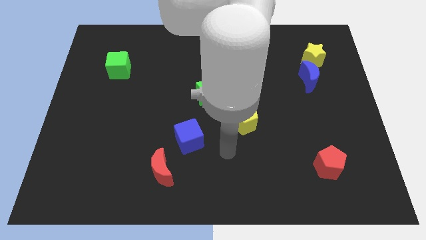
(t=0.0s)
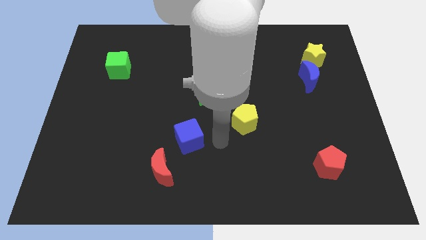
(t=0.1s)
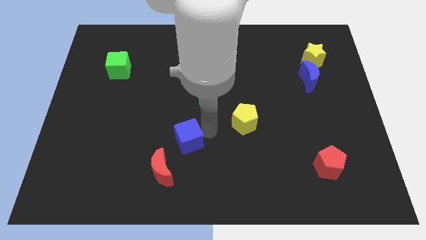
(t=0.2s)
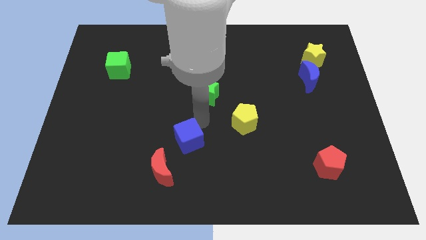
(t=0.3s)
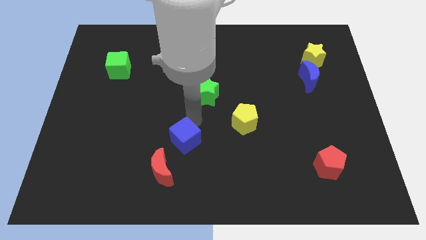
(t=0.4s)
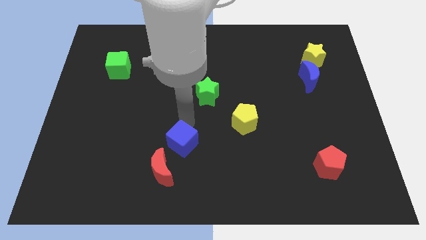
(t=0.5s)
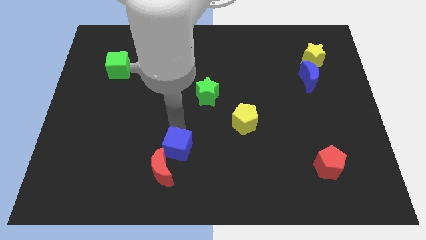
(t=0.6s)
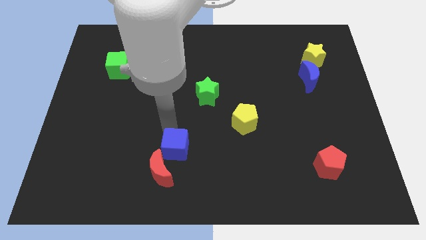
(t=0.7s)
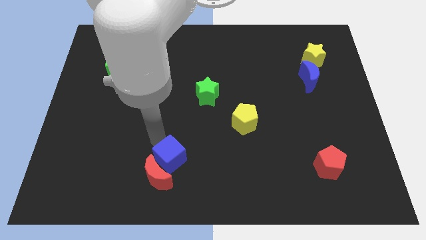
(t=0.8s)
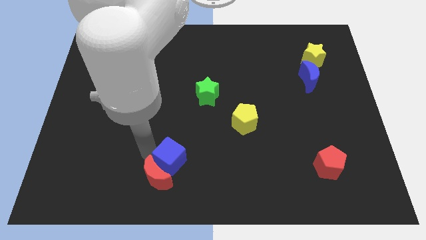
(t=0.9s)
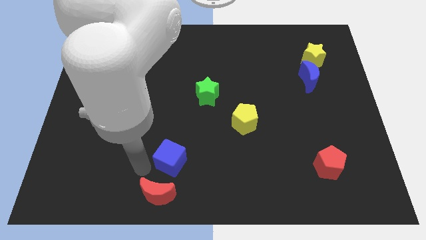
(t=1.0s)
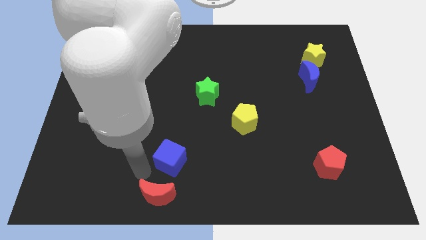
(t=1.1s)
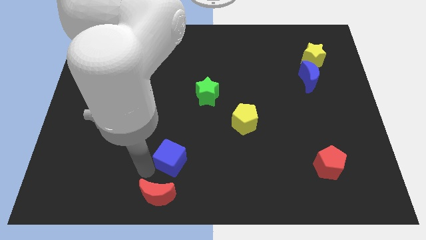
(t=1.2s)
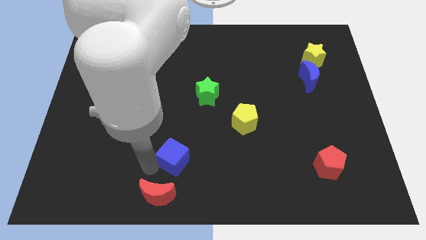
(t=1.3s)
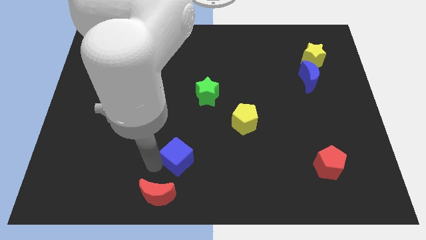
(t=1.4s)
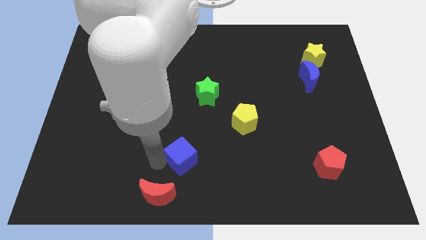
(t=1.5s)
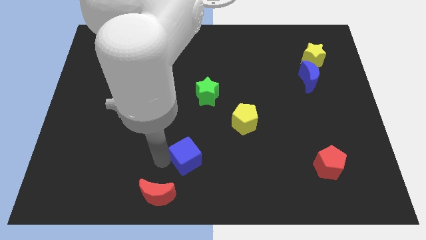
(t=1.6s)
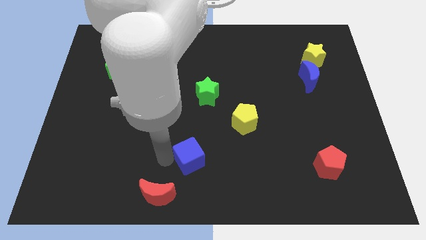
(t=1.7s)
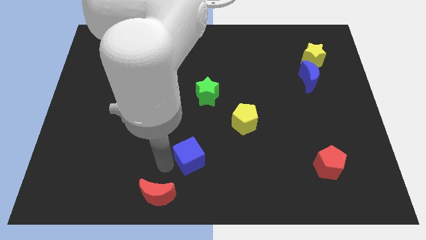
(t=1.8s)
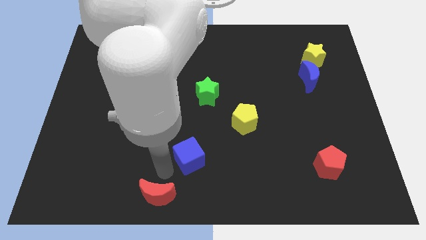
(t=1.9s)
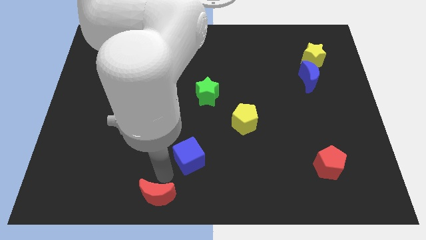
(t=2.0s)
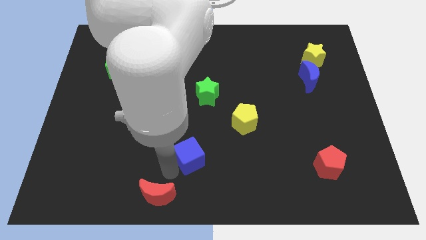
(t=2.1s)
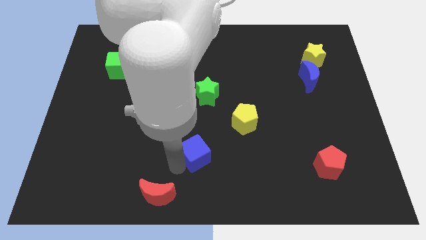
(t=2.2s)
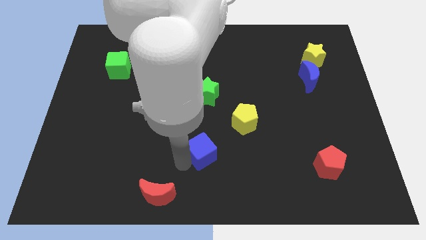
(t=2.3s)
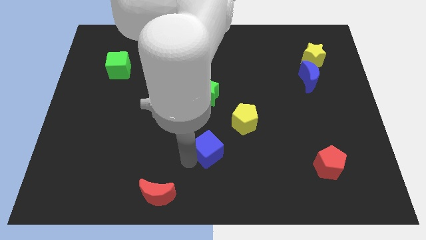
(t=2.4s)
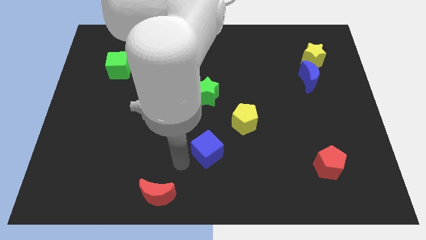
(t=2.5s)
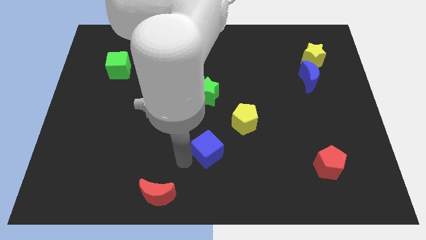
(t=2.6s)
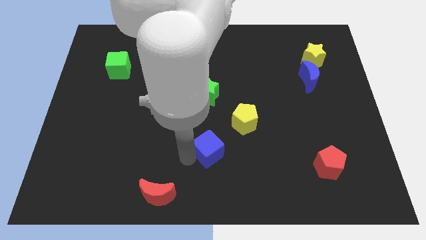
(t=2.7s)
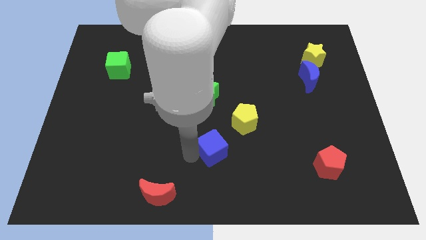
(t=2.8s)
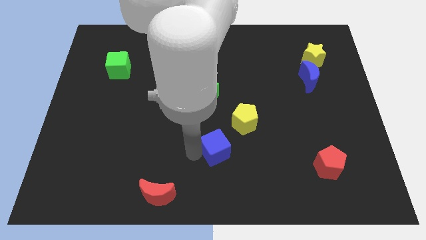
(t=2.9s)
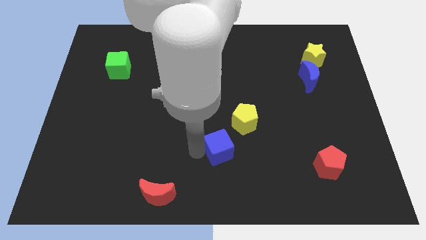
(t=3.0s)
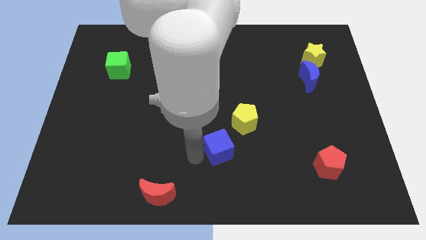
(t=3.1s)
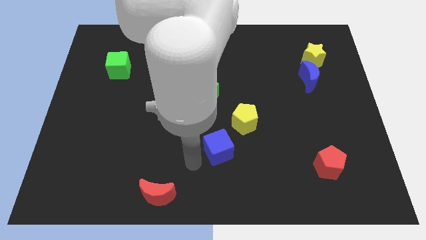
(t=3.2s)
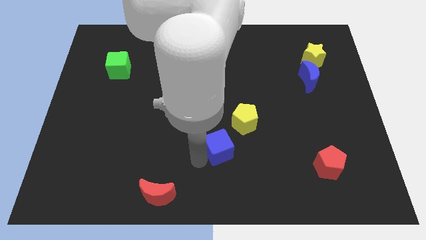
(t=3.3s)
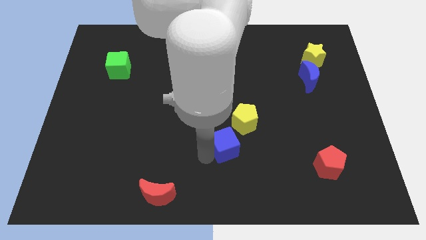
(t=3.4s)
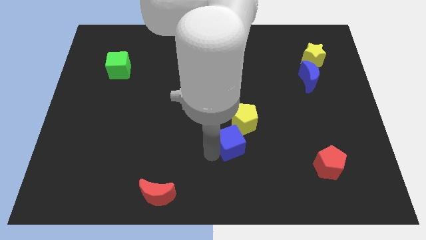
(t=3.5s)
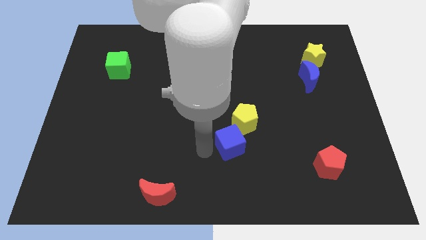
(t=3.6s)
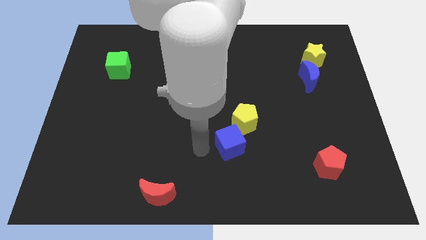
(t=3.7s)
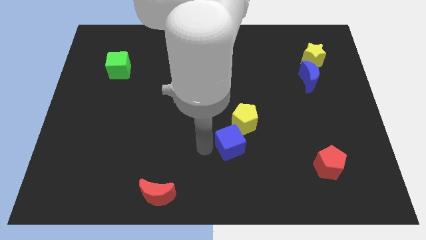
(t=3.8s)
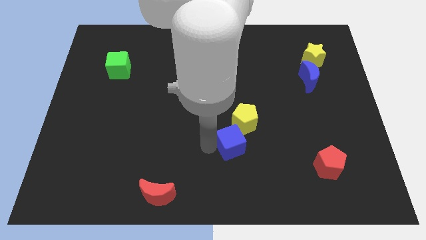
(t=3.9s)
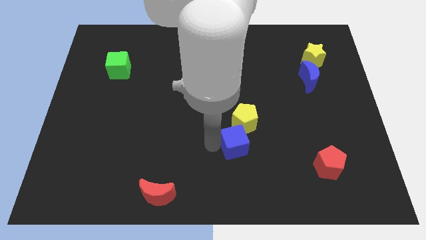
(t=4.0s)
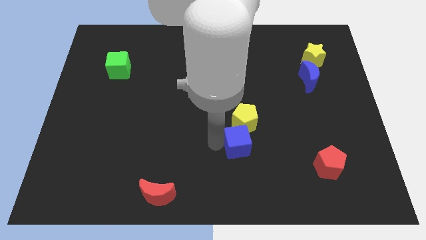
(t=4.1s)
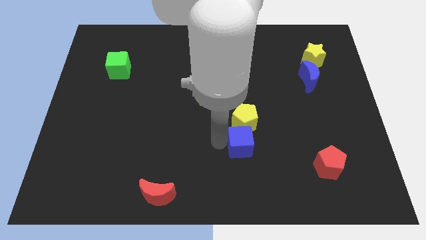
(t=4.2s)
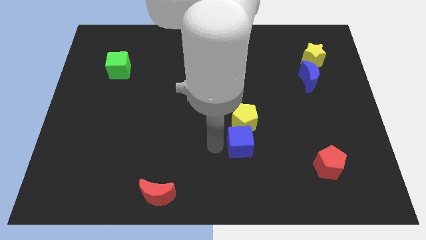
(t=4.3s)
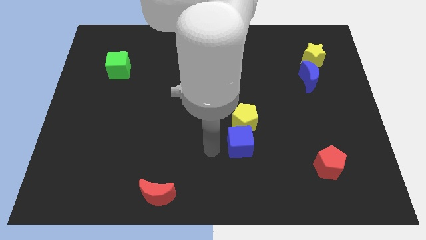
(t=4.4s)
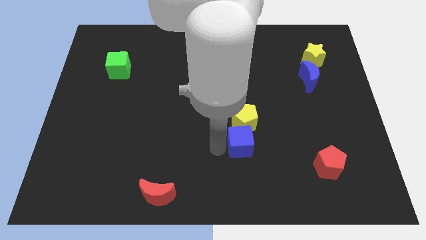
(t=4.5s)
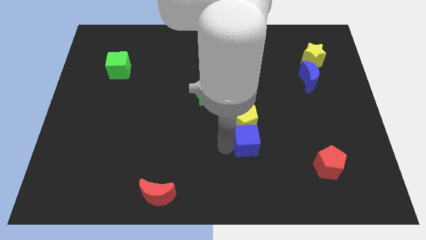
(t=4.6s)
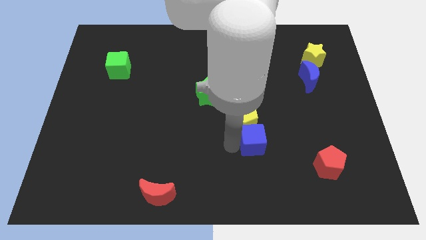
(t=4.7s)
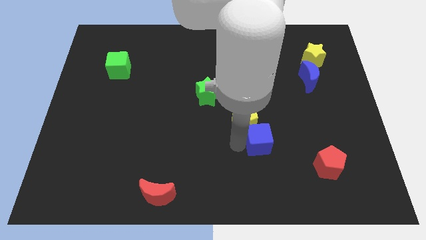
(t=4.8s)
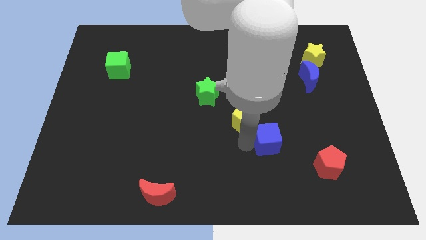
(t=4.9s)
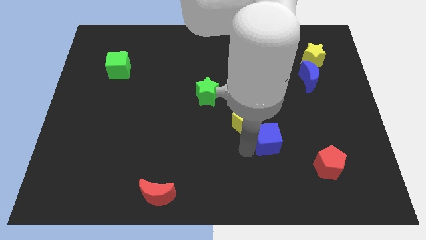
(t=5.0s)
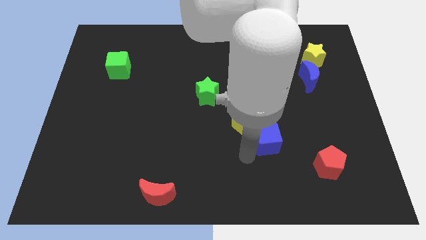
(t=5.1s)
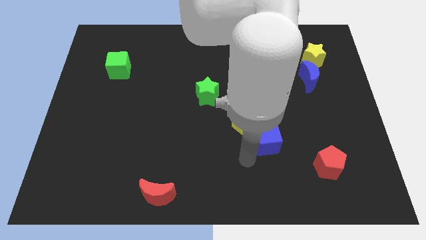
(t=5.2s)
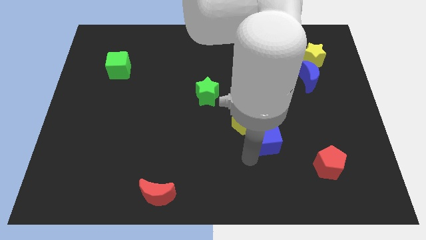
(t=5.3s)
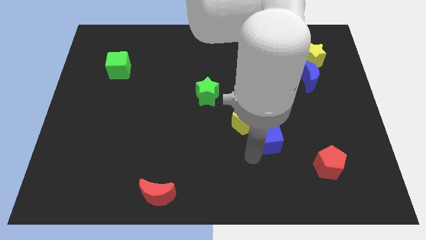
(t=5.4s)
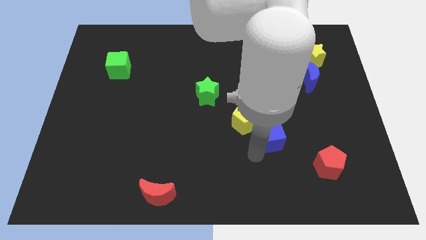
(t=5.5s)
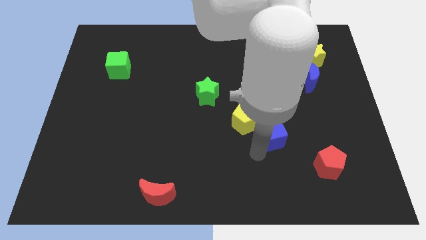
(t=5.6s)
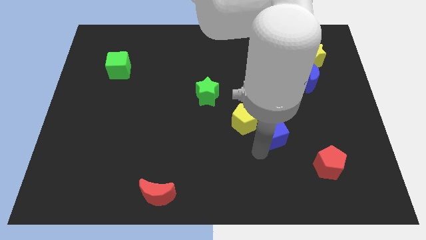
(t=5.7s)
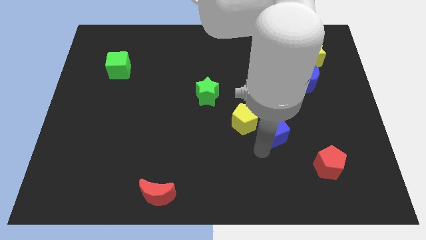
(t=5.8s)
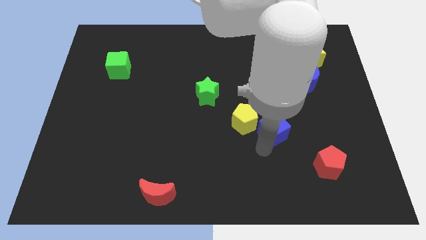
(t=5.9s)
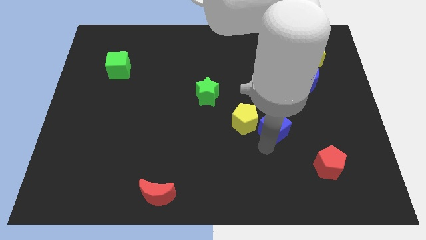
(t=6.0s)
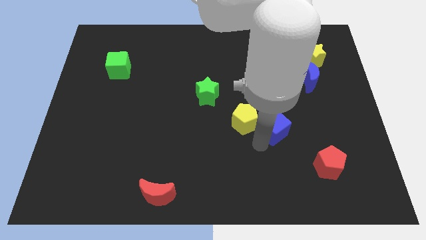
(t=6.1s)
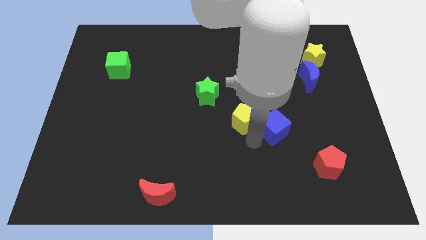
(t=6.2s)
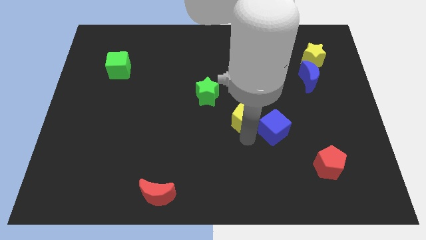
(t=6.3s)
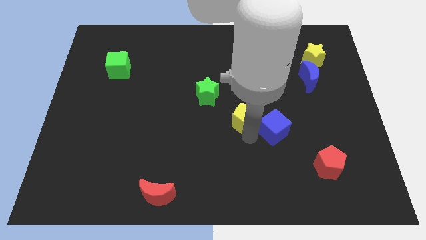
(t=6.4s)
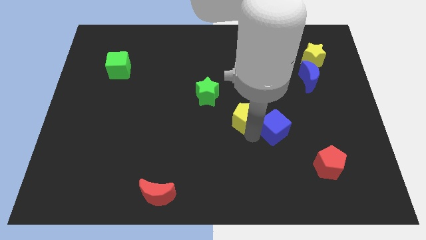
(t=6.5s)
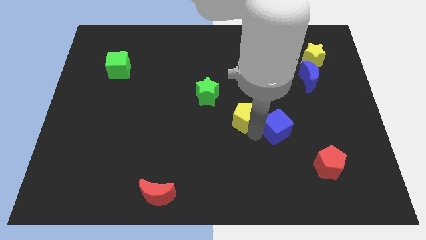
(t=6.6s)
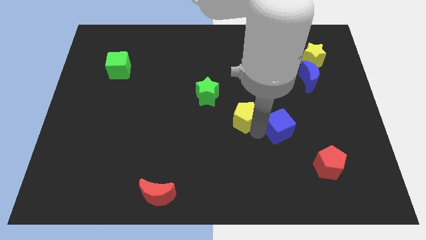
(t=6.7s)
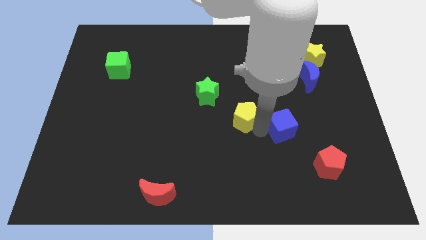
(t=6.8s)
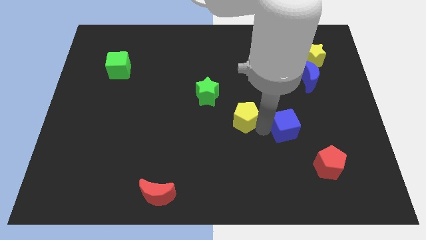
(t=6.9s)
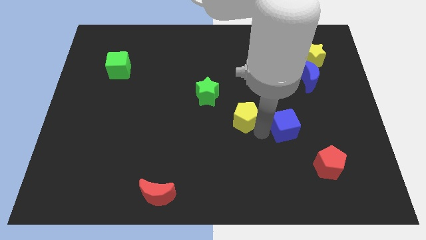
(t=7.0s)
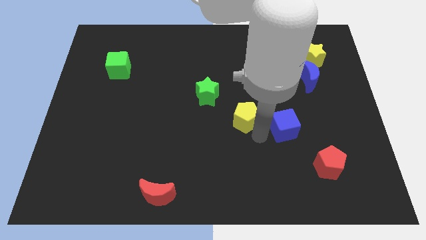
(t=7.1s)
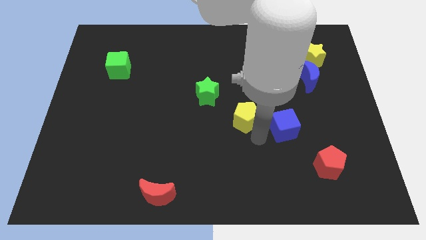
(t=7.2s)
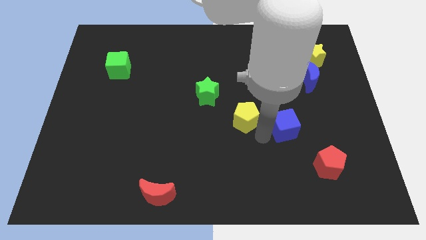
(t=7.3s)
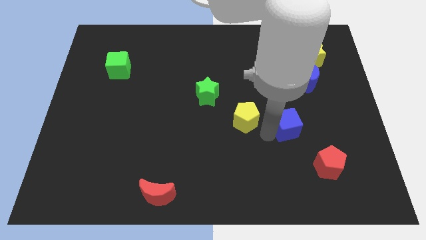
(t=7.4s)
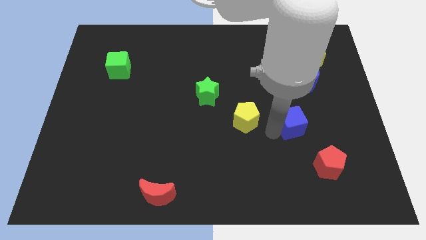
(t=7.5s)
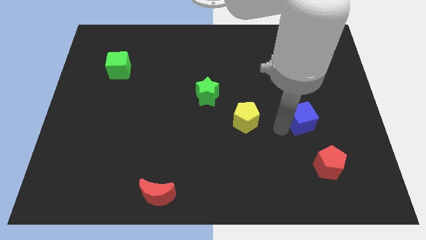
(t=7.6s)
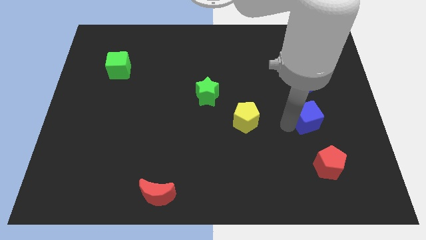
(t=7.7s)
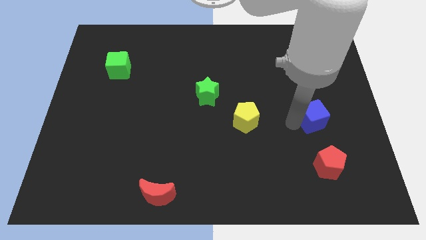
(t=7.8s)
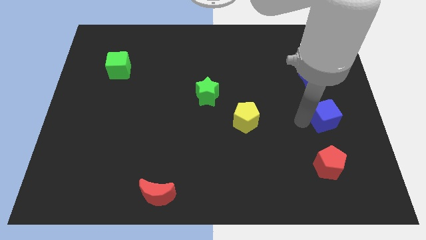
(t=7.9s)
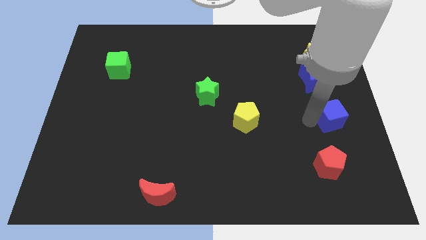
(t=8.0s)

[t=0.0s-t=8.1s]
move the blue cube to the center right
